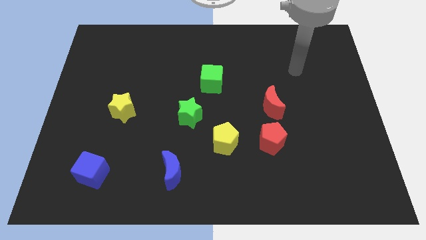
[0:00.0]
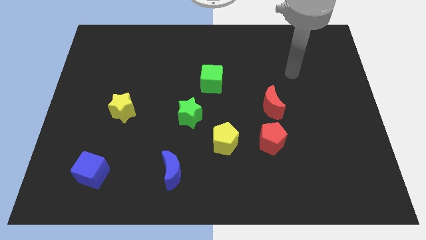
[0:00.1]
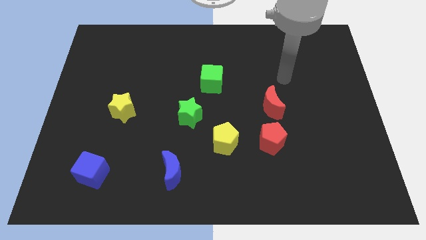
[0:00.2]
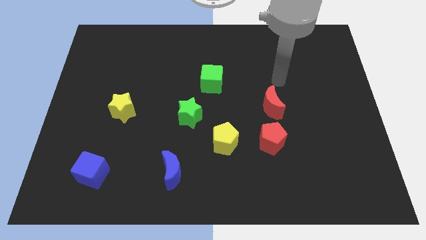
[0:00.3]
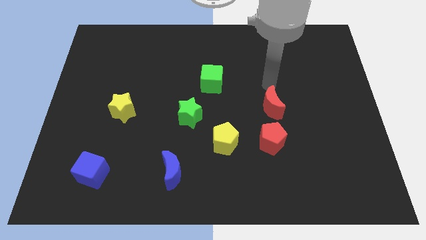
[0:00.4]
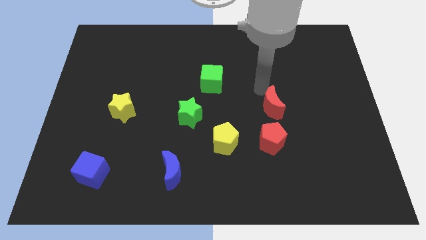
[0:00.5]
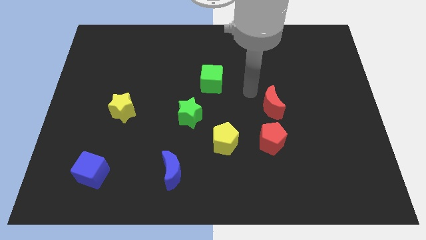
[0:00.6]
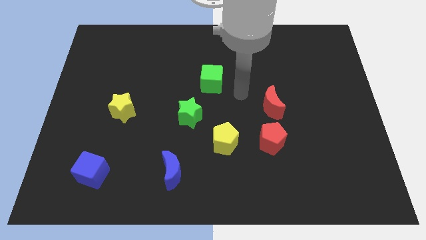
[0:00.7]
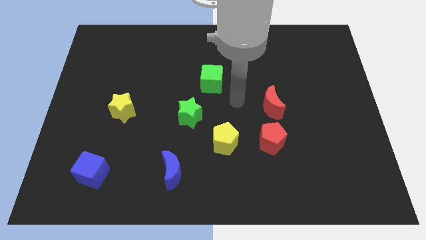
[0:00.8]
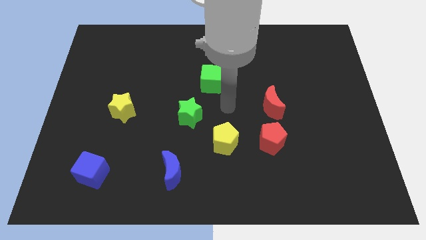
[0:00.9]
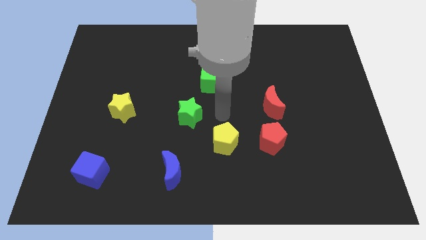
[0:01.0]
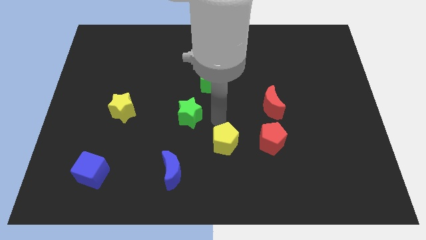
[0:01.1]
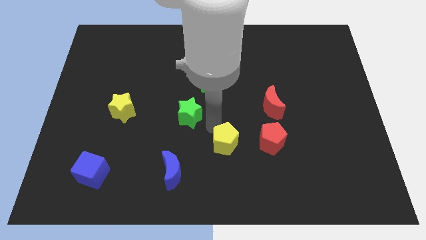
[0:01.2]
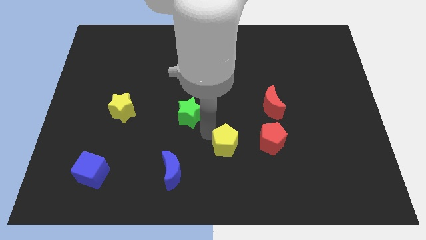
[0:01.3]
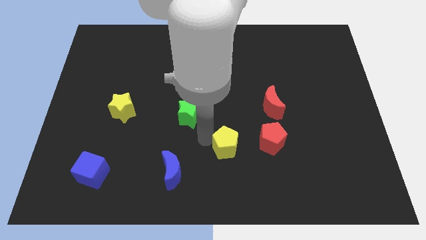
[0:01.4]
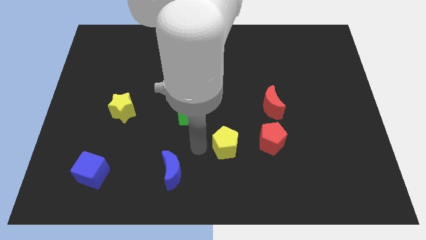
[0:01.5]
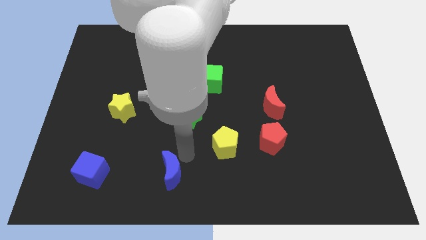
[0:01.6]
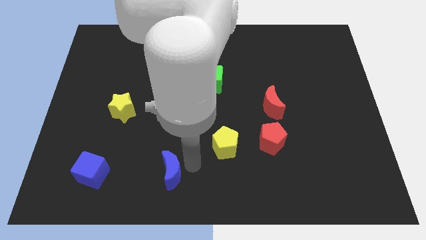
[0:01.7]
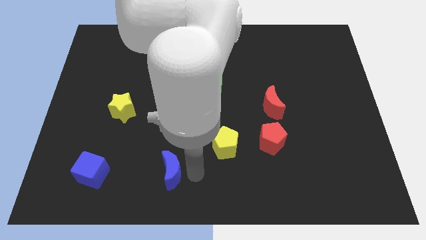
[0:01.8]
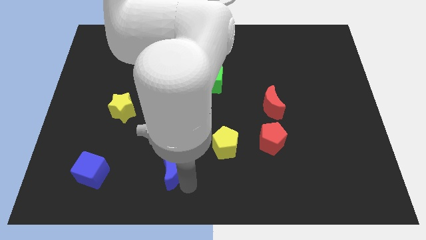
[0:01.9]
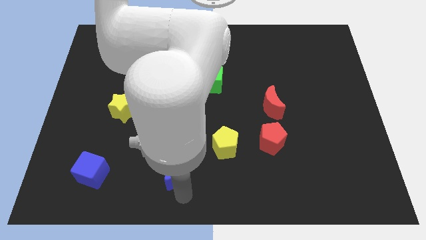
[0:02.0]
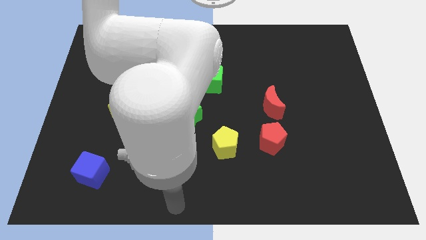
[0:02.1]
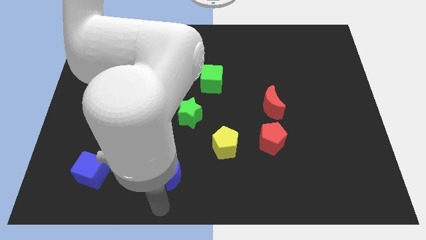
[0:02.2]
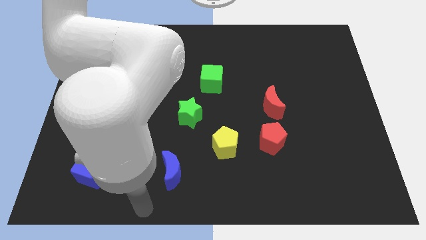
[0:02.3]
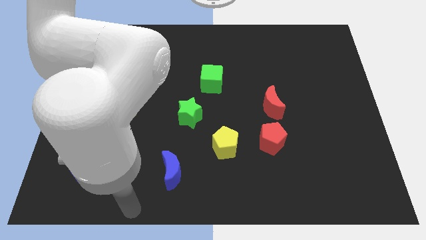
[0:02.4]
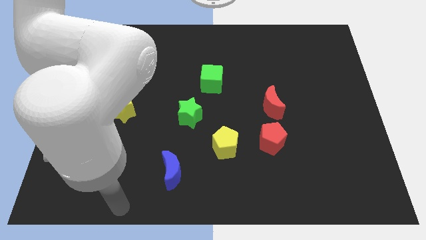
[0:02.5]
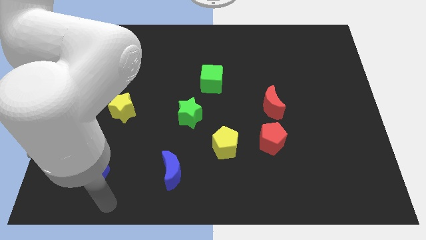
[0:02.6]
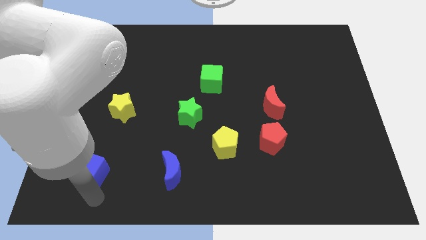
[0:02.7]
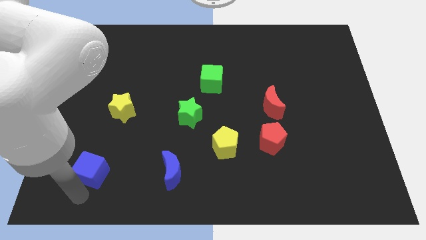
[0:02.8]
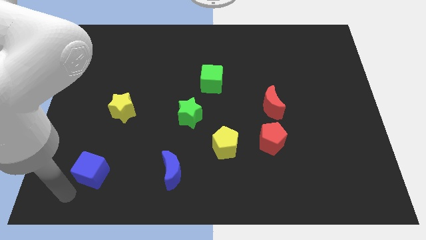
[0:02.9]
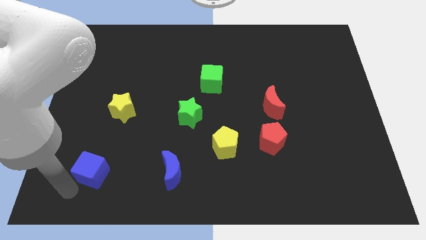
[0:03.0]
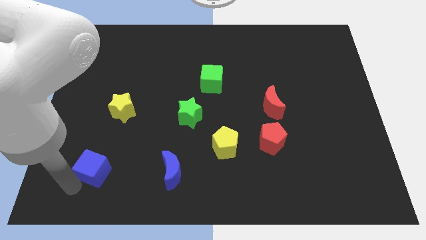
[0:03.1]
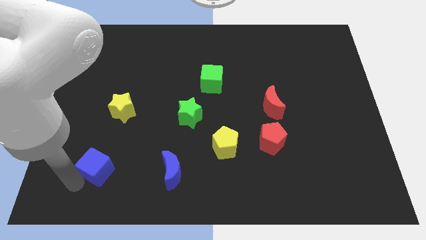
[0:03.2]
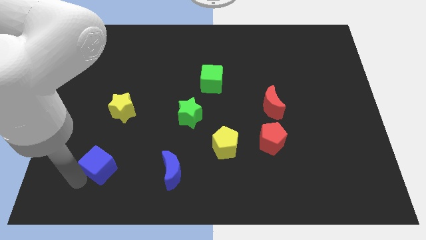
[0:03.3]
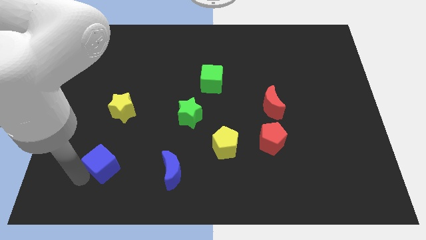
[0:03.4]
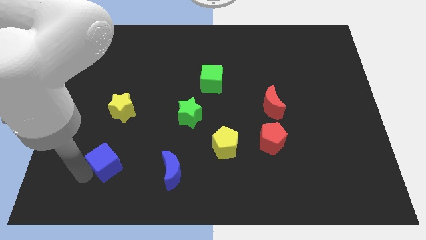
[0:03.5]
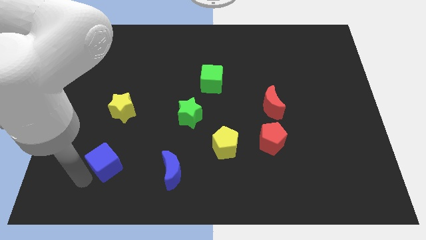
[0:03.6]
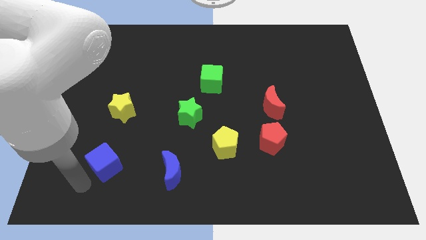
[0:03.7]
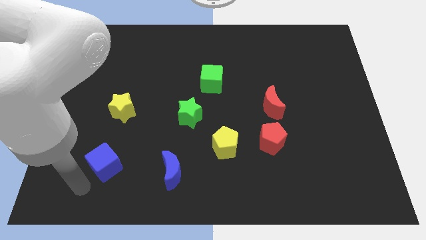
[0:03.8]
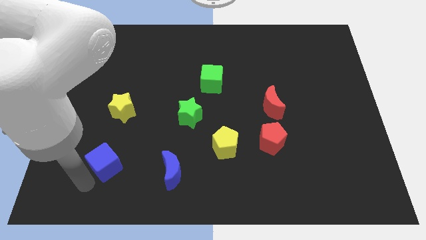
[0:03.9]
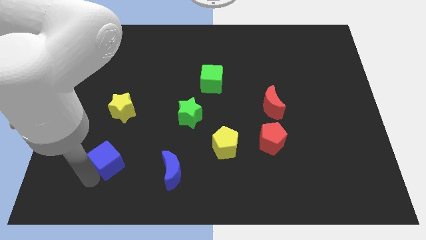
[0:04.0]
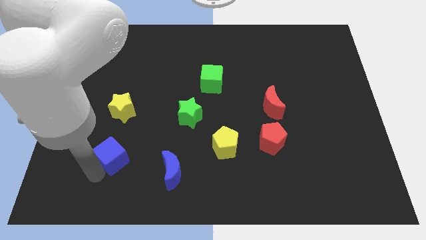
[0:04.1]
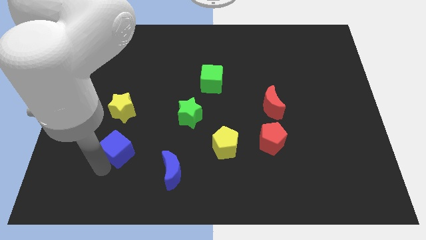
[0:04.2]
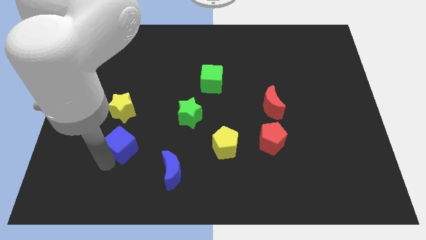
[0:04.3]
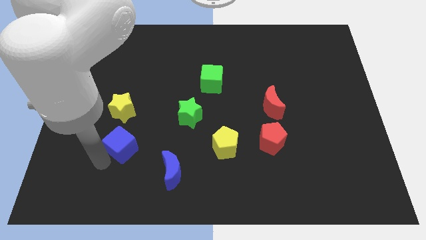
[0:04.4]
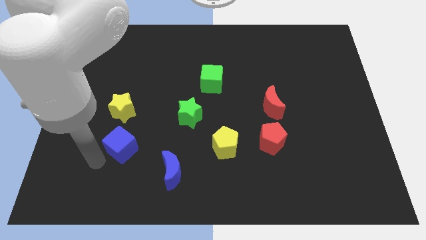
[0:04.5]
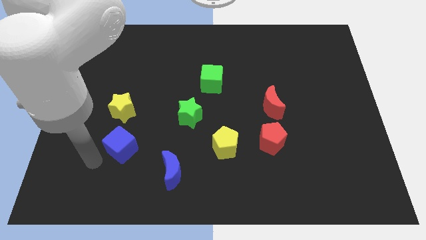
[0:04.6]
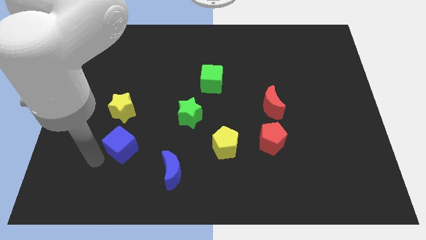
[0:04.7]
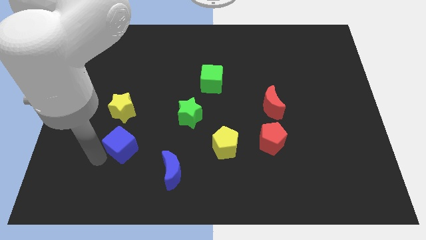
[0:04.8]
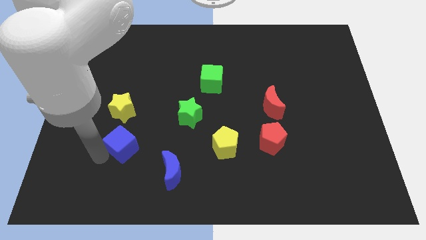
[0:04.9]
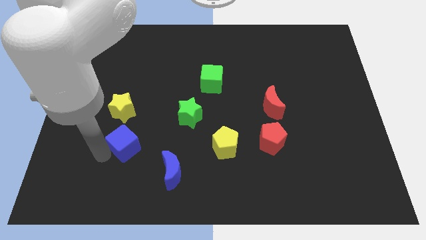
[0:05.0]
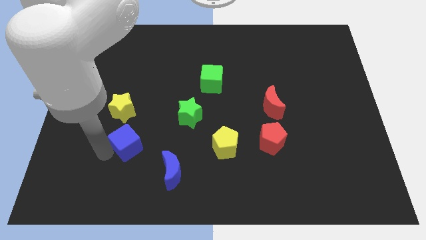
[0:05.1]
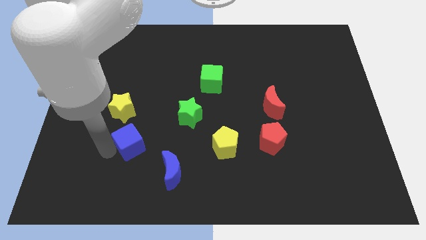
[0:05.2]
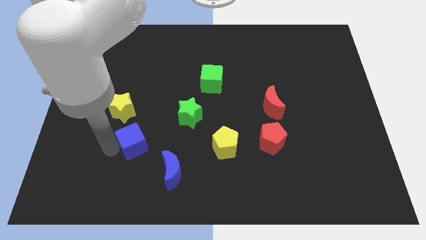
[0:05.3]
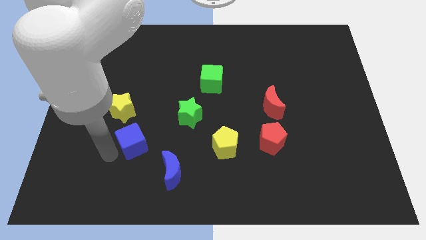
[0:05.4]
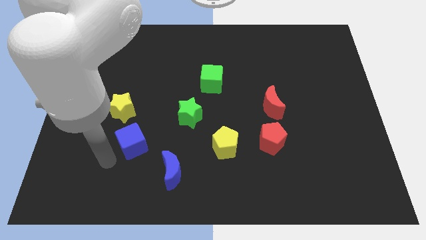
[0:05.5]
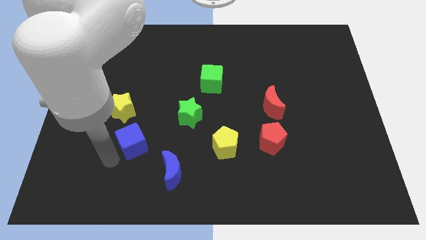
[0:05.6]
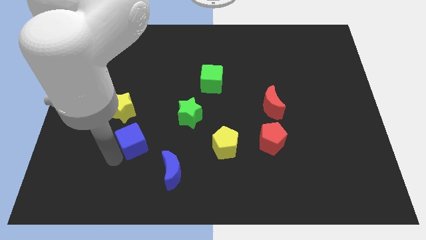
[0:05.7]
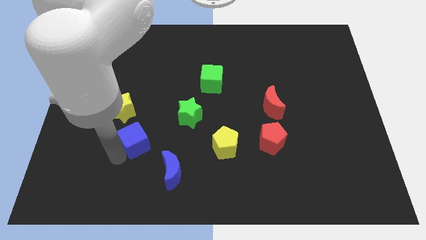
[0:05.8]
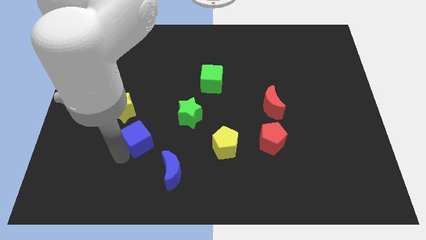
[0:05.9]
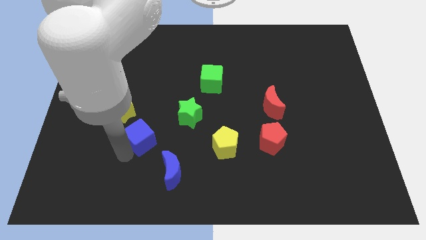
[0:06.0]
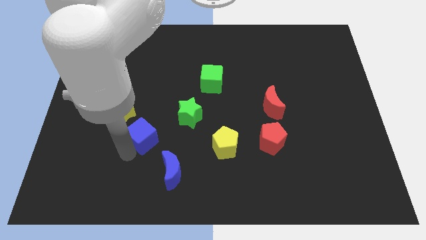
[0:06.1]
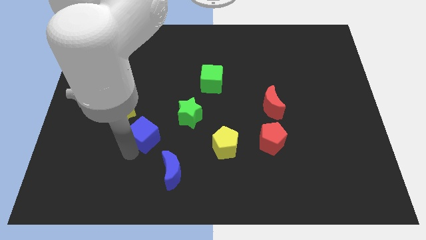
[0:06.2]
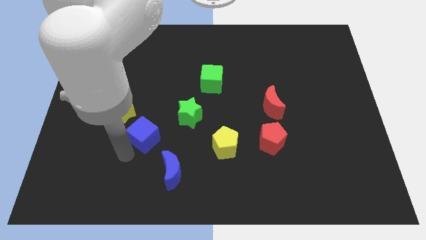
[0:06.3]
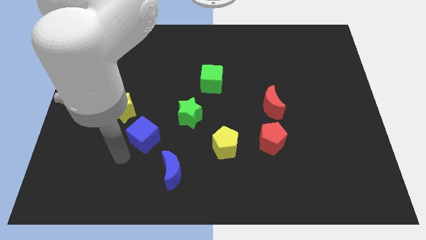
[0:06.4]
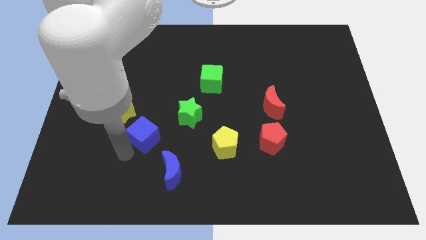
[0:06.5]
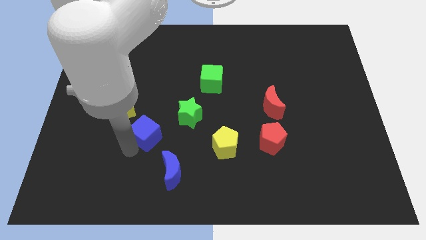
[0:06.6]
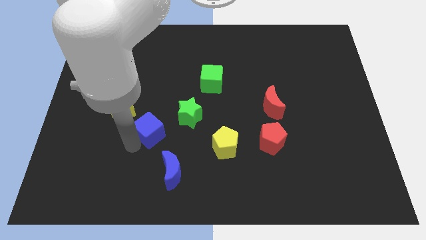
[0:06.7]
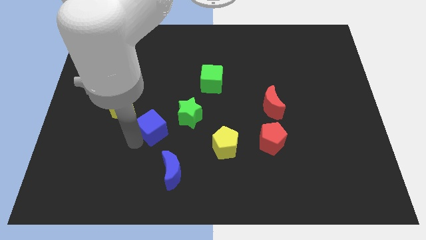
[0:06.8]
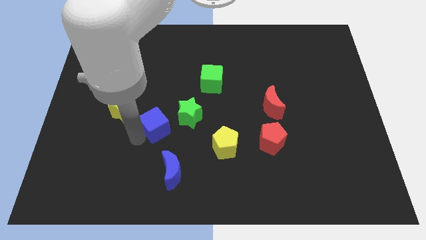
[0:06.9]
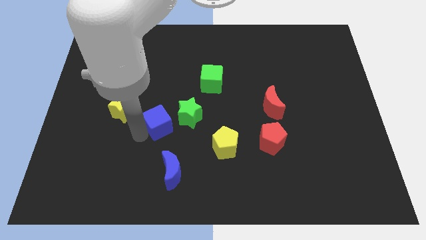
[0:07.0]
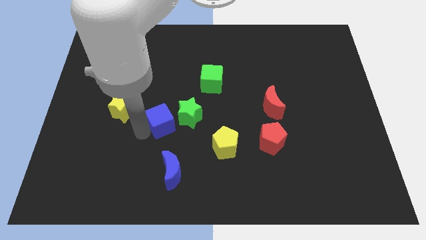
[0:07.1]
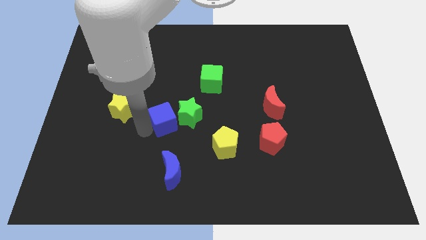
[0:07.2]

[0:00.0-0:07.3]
slide the blue cube to the green star
